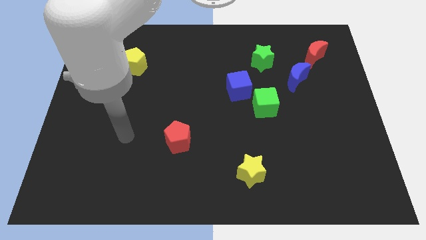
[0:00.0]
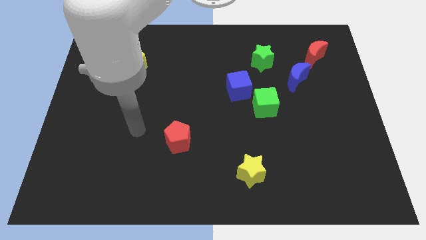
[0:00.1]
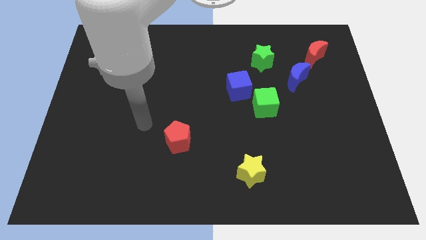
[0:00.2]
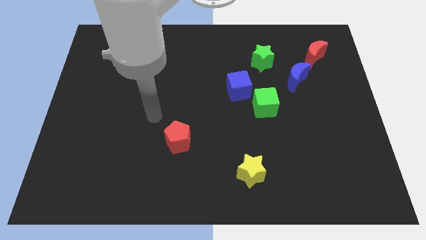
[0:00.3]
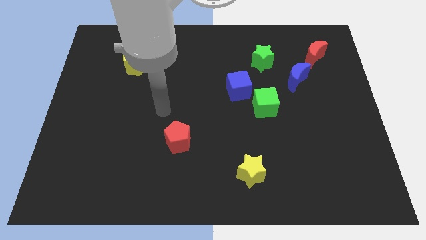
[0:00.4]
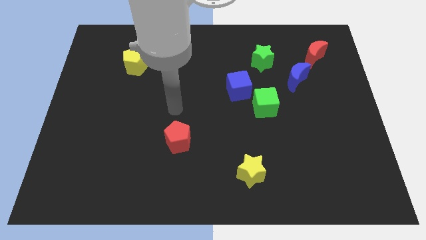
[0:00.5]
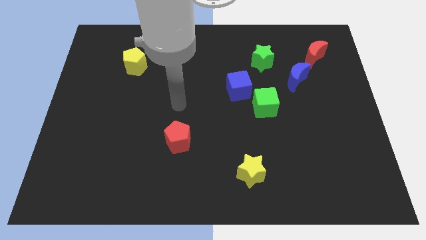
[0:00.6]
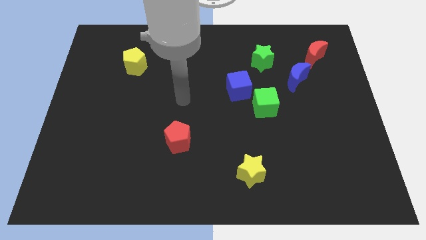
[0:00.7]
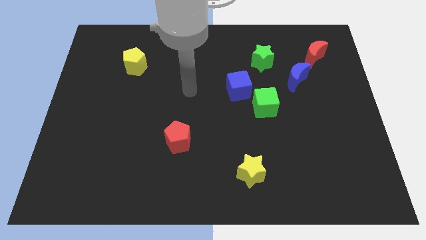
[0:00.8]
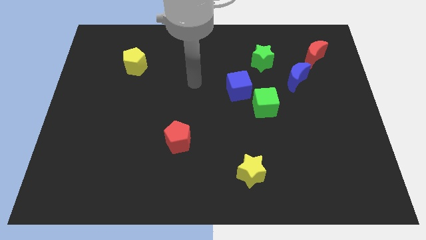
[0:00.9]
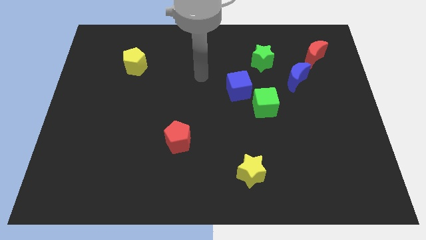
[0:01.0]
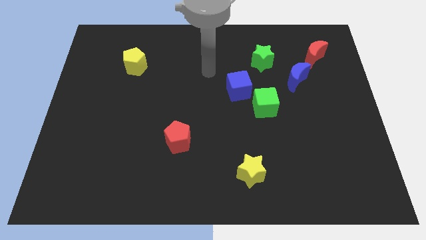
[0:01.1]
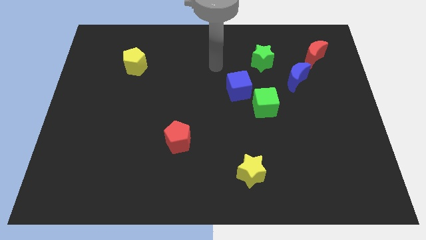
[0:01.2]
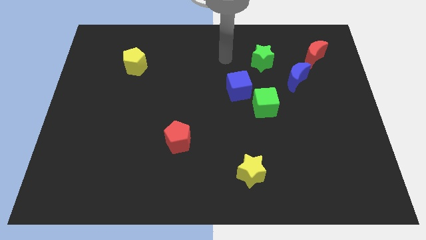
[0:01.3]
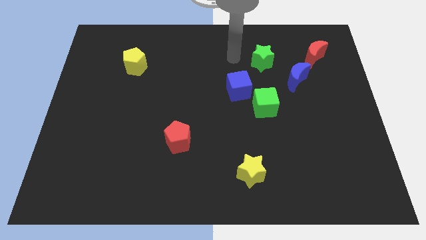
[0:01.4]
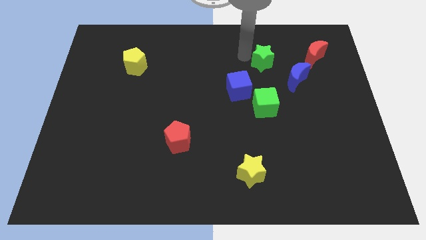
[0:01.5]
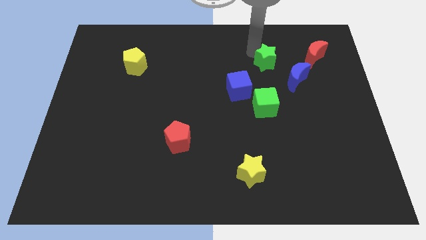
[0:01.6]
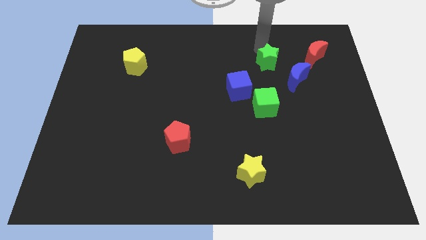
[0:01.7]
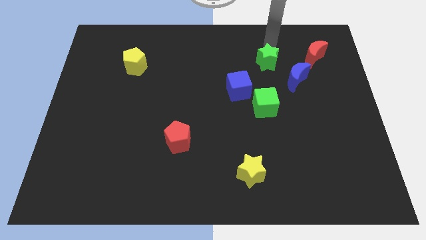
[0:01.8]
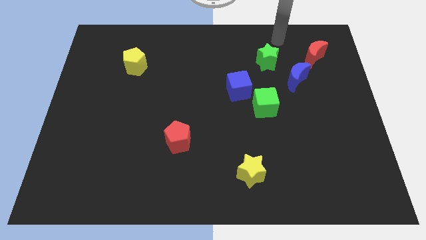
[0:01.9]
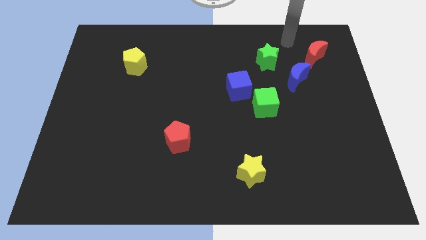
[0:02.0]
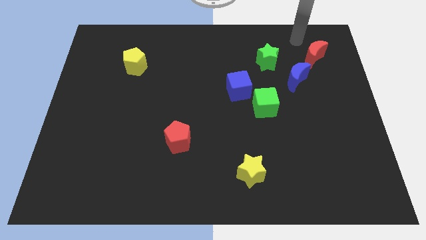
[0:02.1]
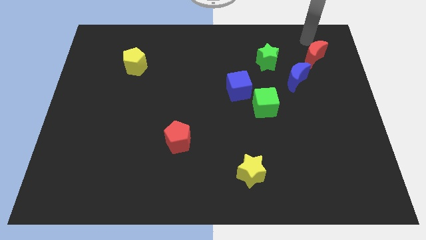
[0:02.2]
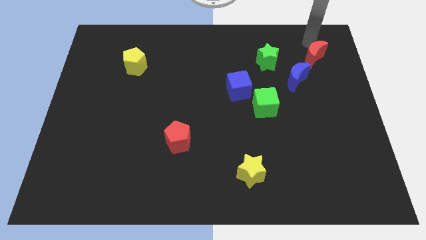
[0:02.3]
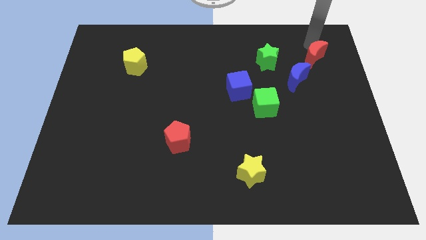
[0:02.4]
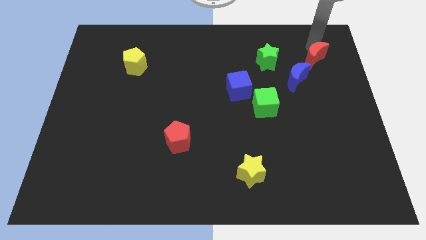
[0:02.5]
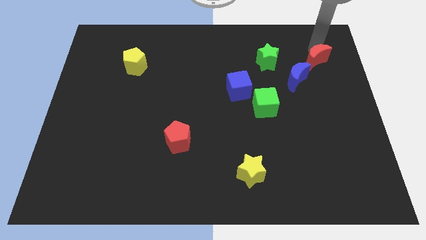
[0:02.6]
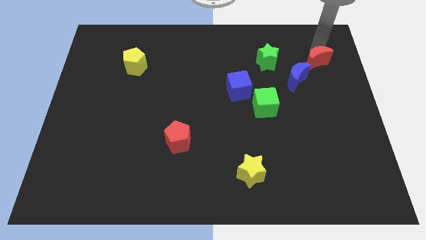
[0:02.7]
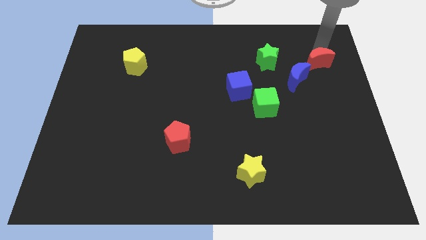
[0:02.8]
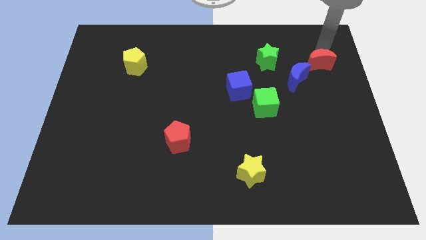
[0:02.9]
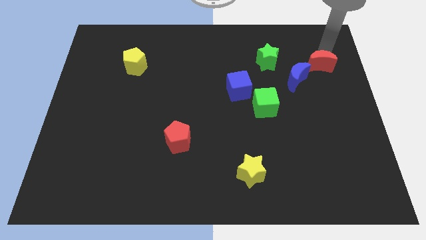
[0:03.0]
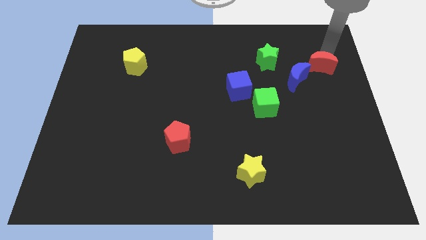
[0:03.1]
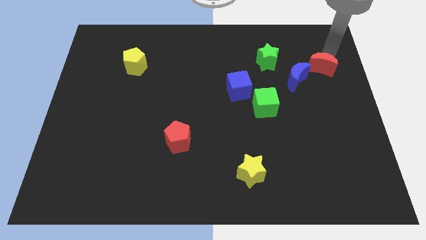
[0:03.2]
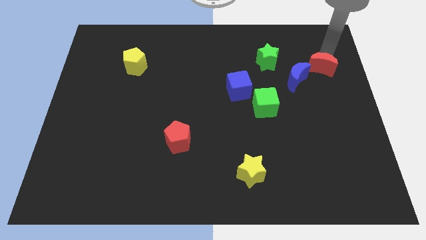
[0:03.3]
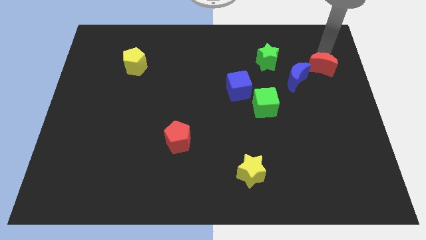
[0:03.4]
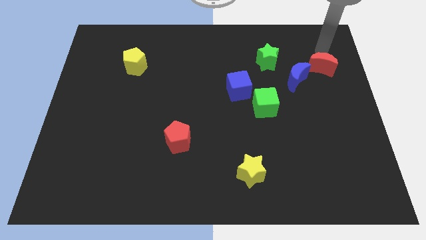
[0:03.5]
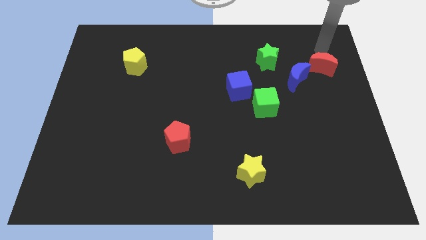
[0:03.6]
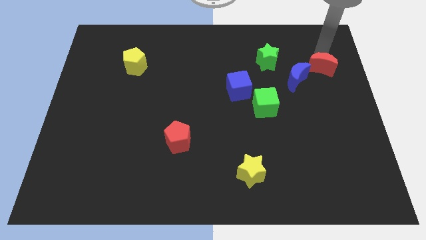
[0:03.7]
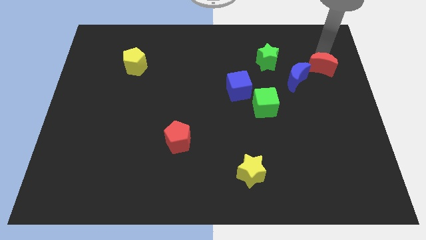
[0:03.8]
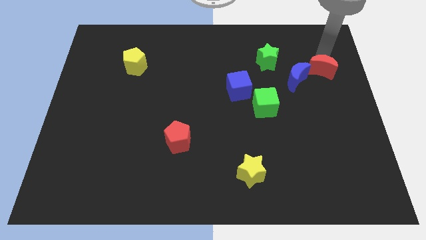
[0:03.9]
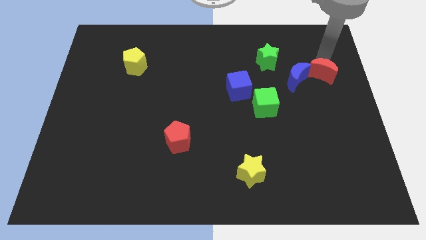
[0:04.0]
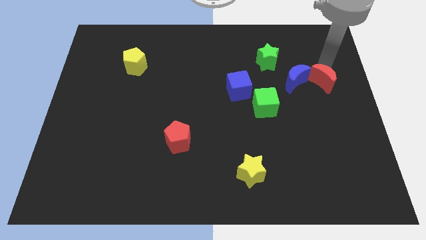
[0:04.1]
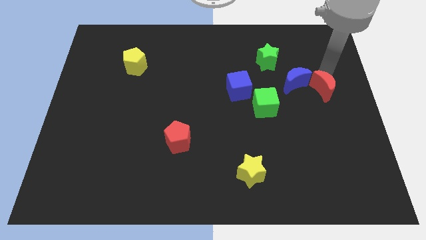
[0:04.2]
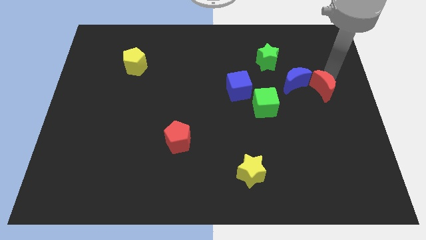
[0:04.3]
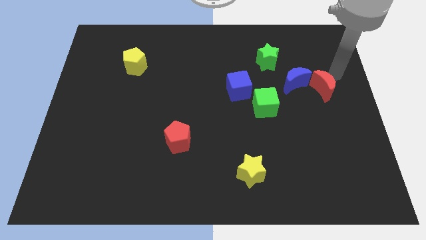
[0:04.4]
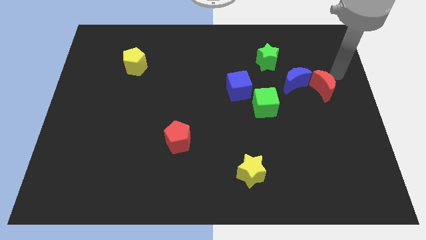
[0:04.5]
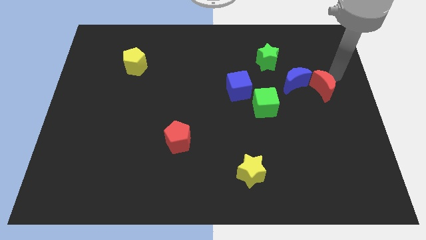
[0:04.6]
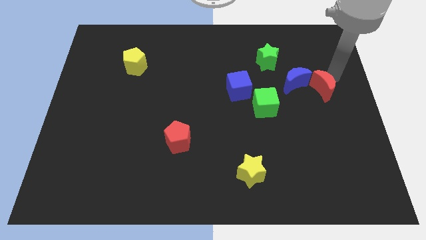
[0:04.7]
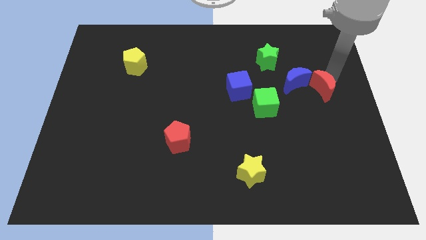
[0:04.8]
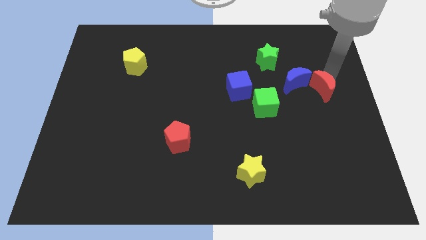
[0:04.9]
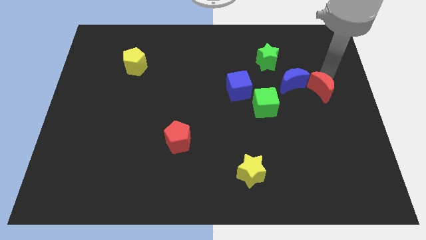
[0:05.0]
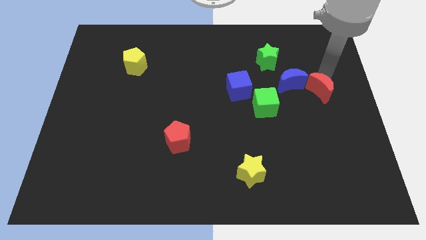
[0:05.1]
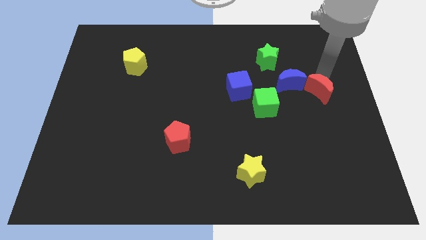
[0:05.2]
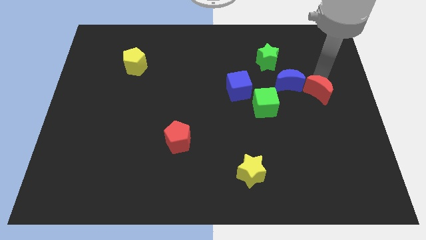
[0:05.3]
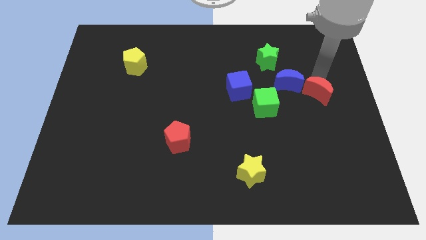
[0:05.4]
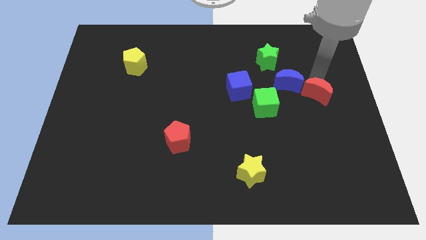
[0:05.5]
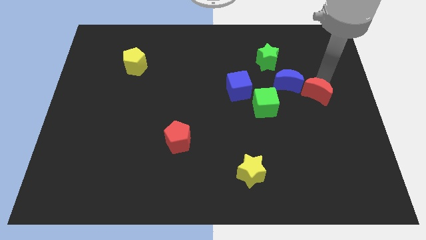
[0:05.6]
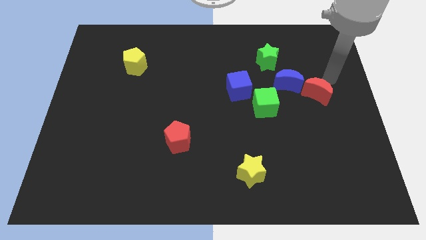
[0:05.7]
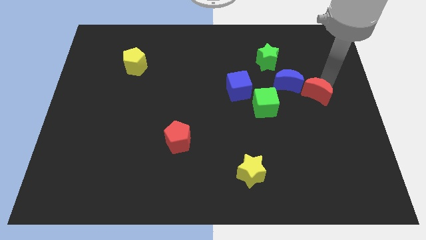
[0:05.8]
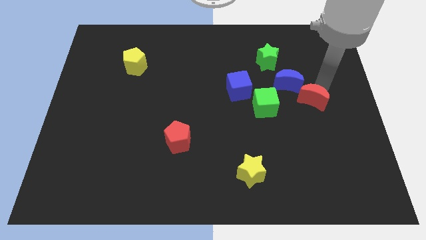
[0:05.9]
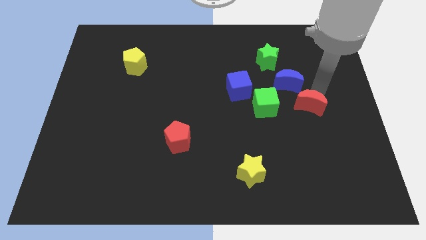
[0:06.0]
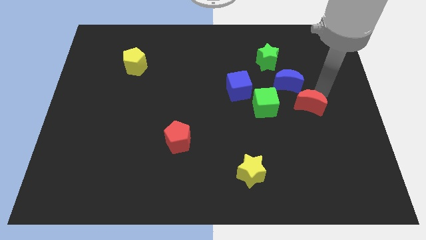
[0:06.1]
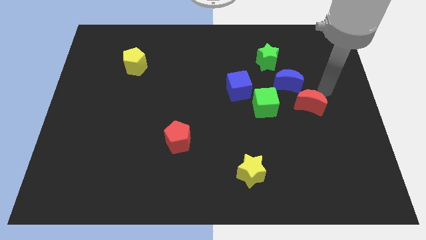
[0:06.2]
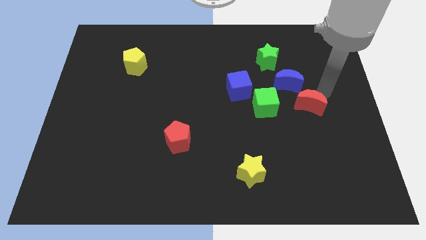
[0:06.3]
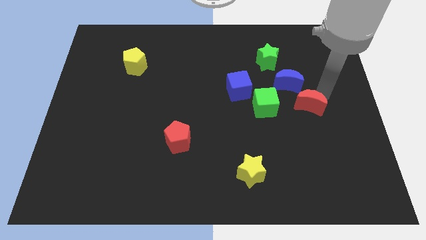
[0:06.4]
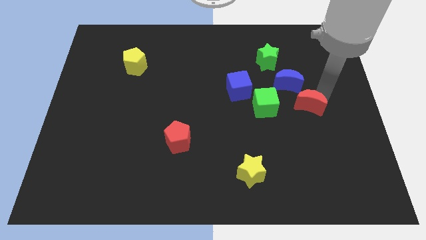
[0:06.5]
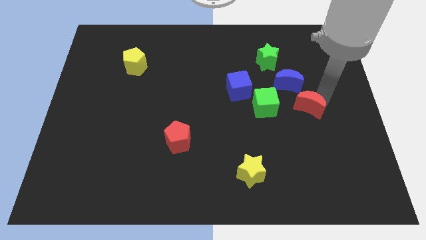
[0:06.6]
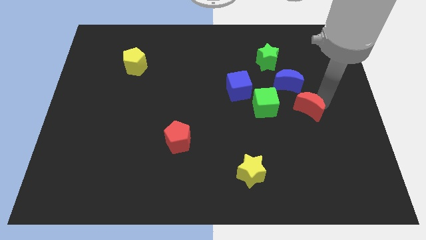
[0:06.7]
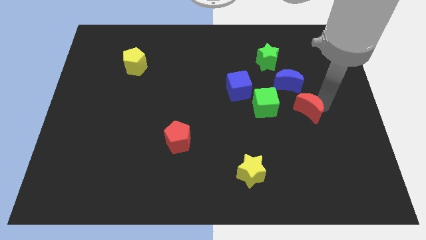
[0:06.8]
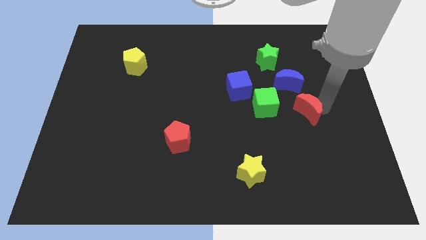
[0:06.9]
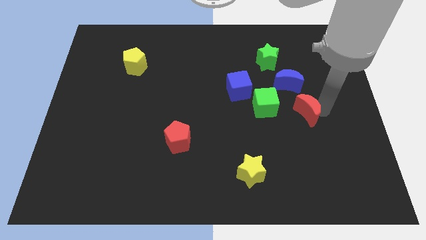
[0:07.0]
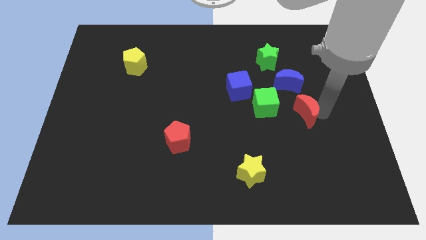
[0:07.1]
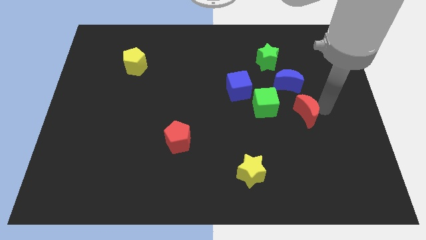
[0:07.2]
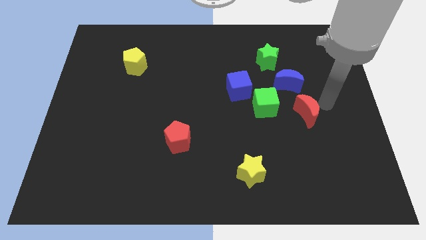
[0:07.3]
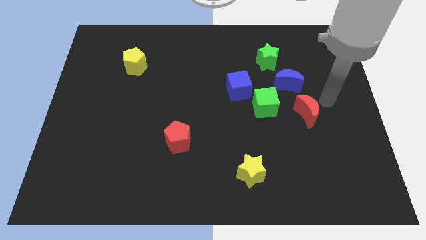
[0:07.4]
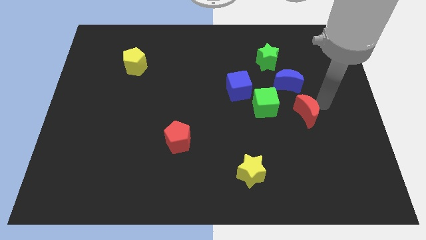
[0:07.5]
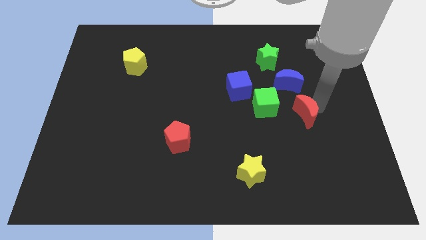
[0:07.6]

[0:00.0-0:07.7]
push the red moon to the bottom right of the green cube

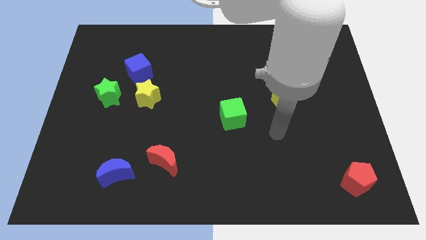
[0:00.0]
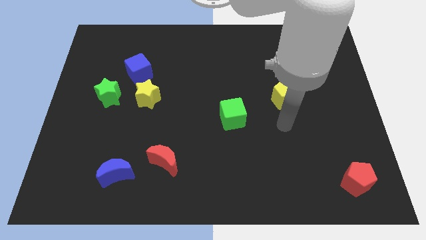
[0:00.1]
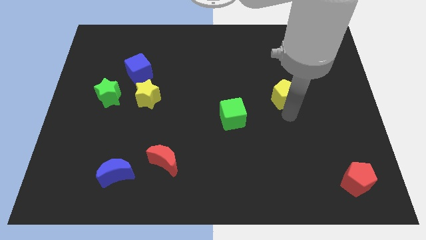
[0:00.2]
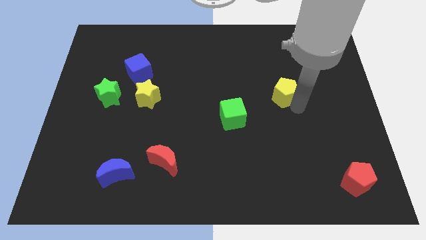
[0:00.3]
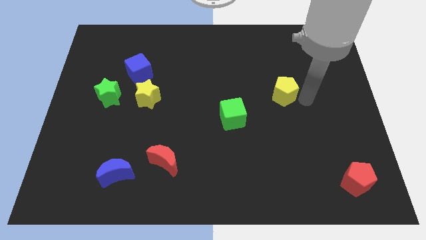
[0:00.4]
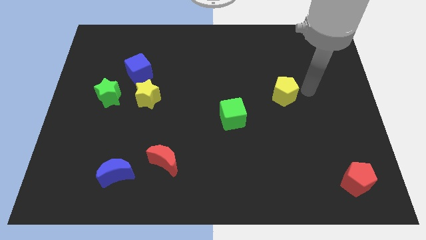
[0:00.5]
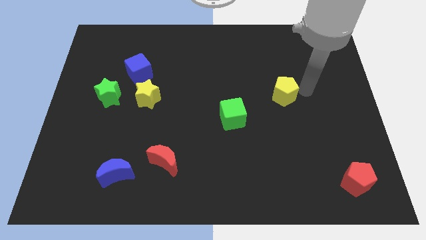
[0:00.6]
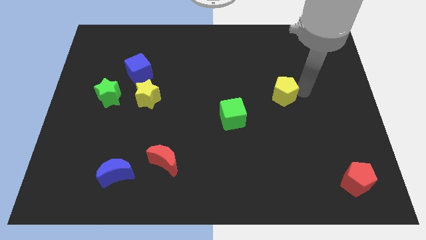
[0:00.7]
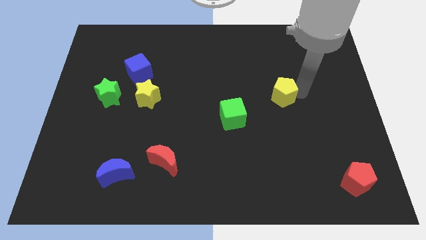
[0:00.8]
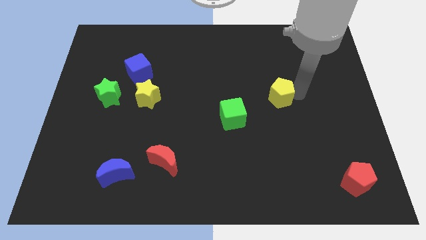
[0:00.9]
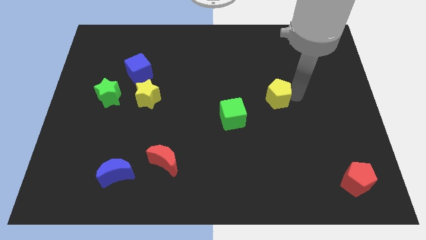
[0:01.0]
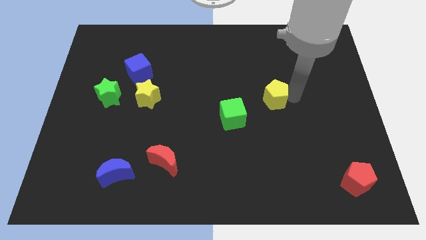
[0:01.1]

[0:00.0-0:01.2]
slide the yellow pentagon to the top right of the green cube
